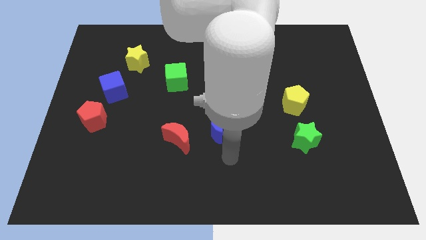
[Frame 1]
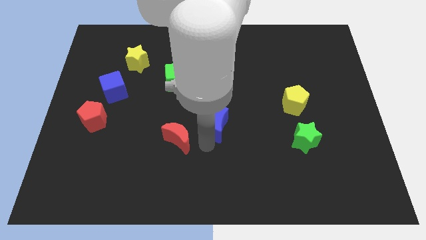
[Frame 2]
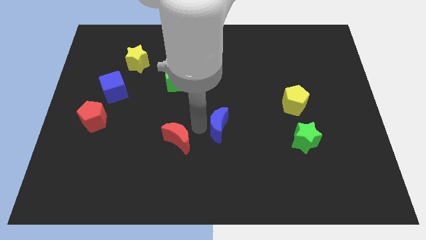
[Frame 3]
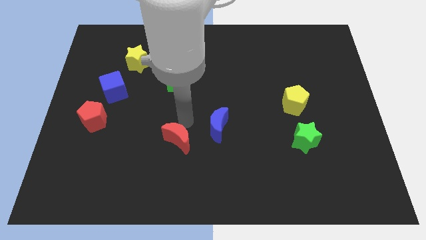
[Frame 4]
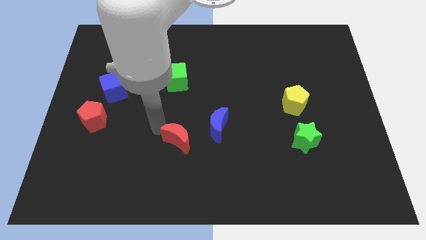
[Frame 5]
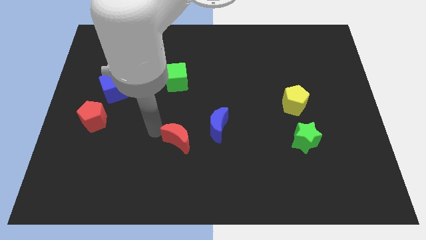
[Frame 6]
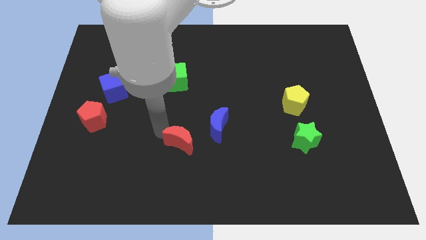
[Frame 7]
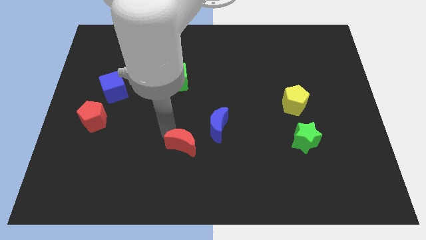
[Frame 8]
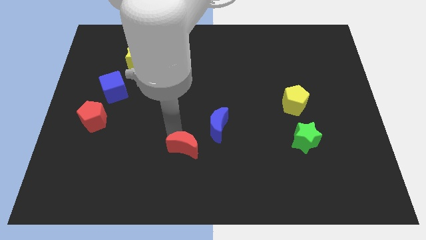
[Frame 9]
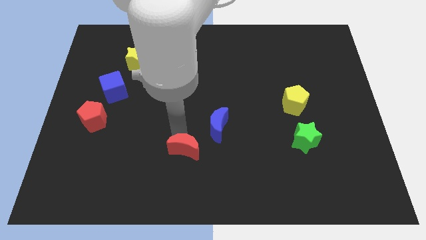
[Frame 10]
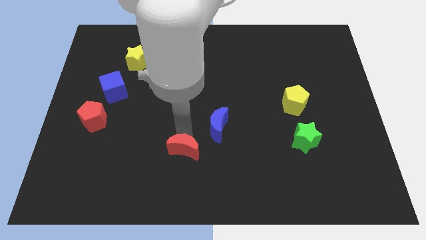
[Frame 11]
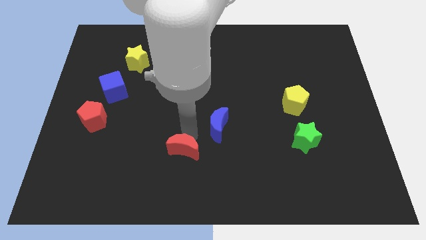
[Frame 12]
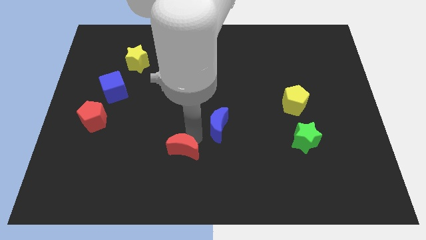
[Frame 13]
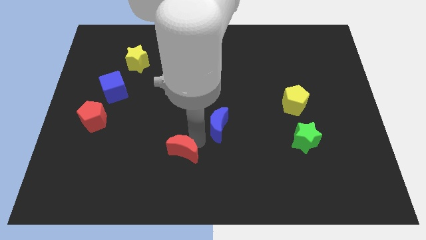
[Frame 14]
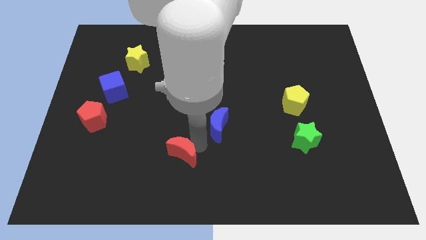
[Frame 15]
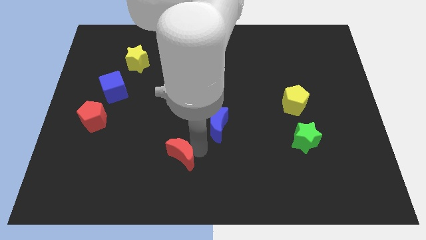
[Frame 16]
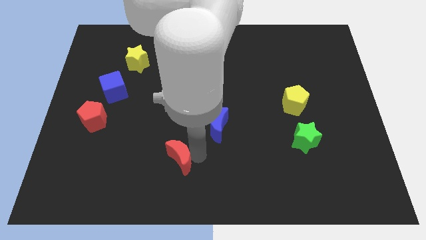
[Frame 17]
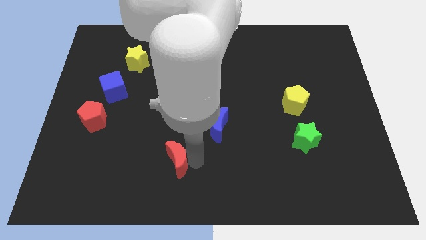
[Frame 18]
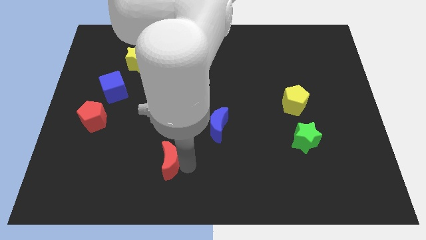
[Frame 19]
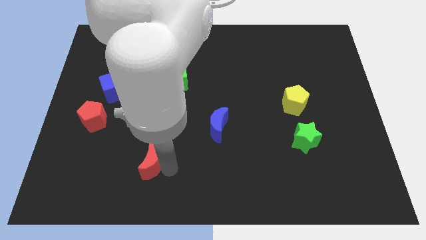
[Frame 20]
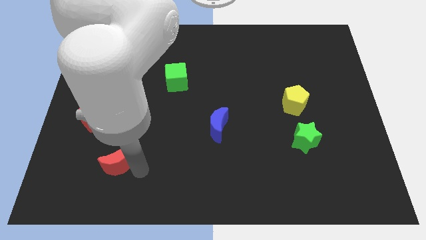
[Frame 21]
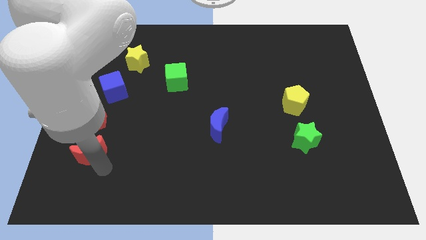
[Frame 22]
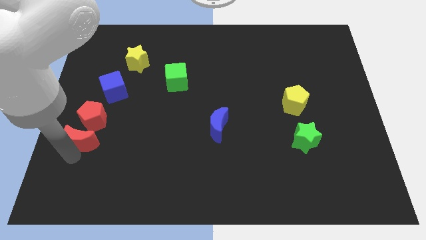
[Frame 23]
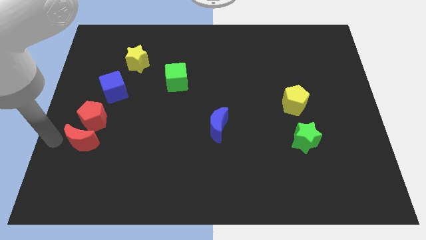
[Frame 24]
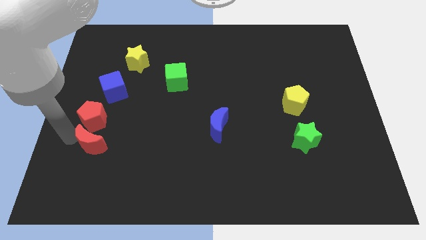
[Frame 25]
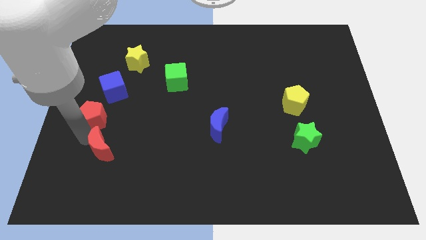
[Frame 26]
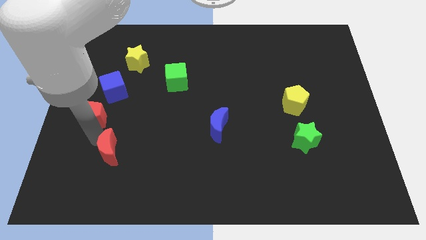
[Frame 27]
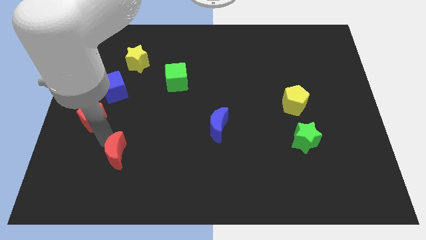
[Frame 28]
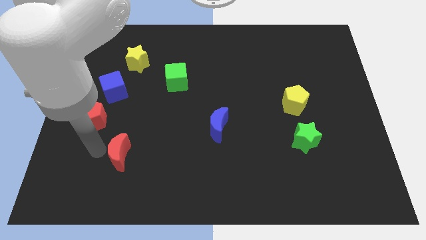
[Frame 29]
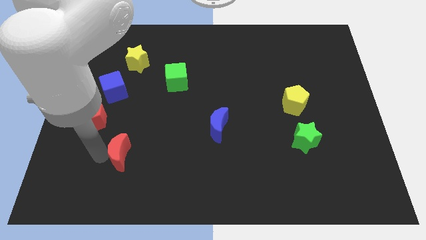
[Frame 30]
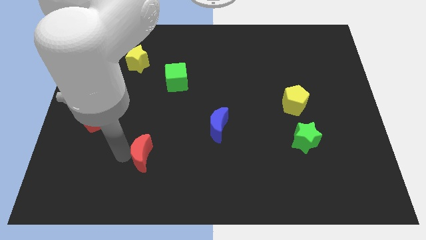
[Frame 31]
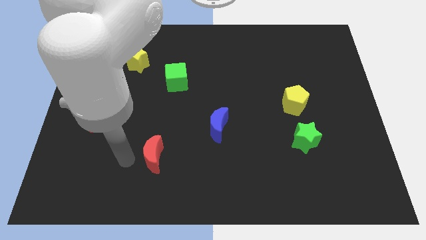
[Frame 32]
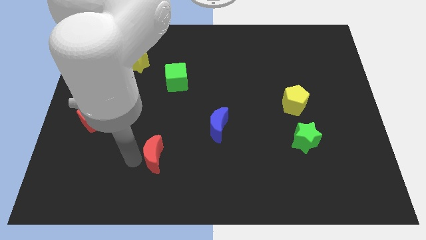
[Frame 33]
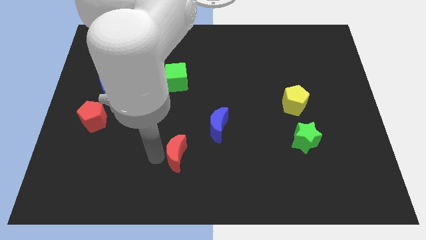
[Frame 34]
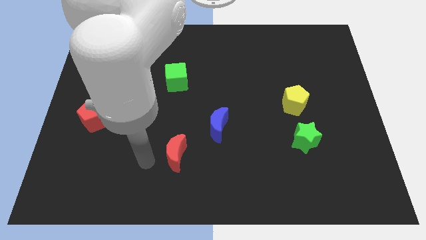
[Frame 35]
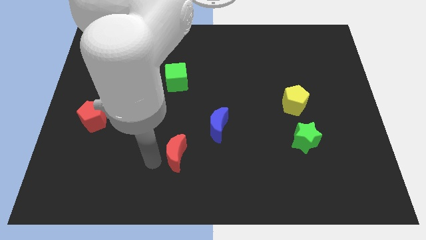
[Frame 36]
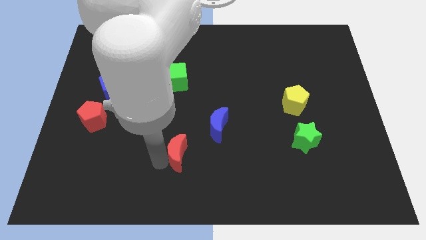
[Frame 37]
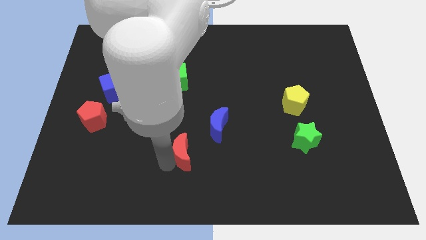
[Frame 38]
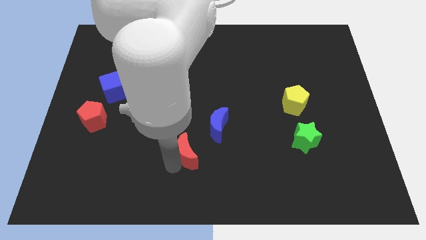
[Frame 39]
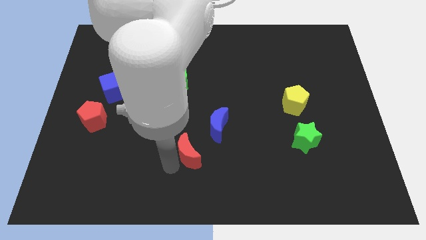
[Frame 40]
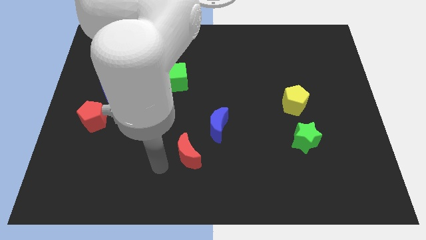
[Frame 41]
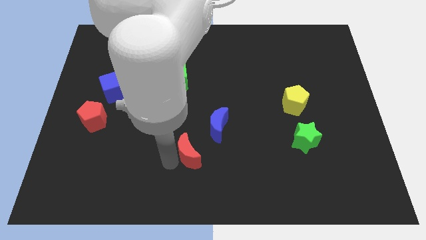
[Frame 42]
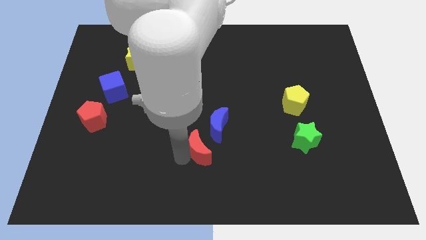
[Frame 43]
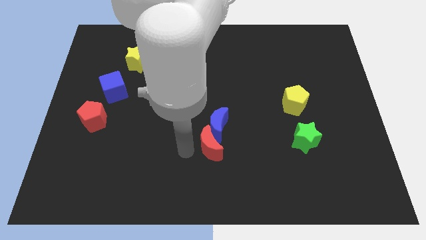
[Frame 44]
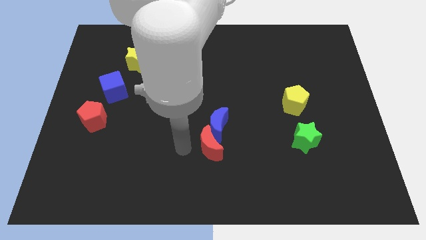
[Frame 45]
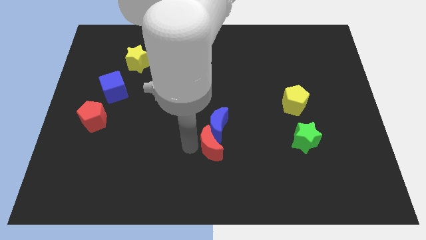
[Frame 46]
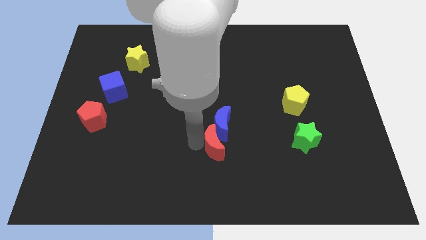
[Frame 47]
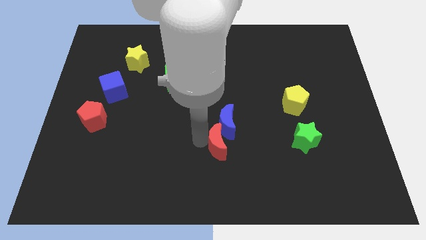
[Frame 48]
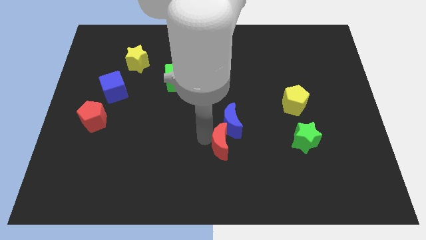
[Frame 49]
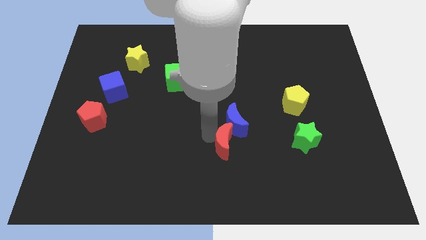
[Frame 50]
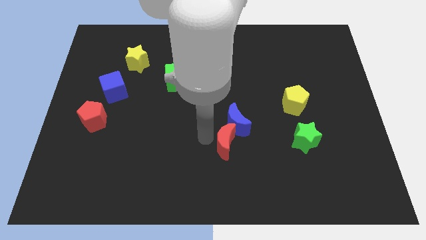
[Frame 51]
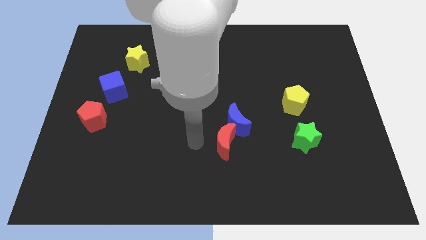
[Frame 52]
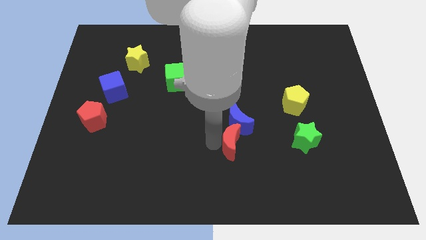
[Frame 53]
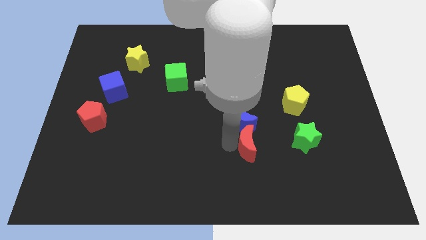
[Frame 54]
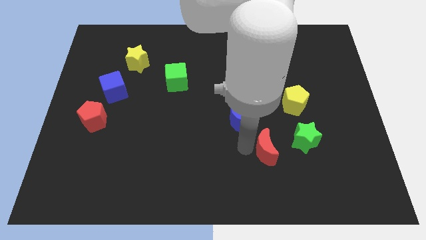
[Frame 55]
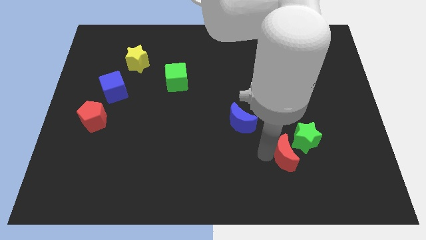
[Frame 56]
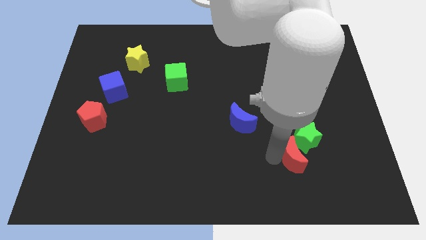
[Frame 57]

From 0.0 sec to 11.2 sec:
slide the red moon next to the green star

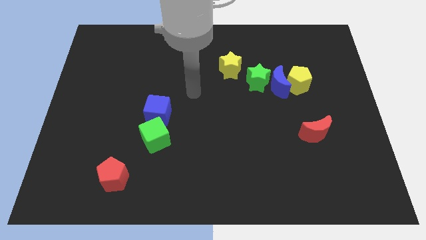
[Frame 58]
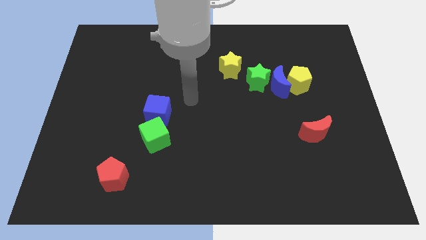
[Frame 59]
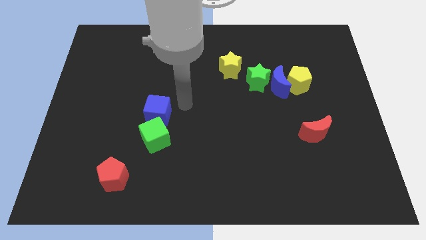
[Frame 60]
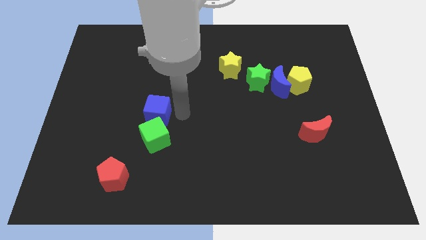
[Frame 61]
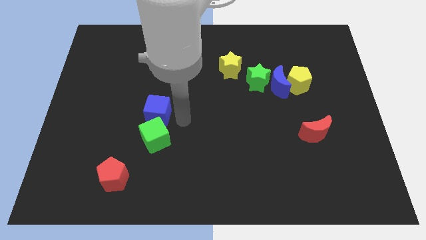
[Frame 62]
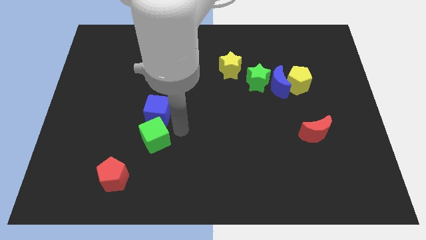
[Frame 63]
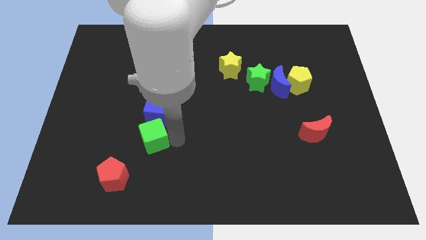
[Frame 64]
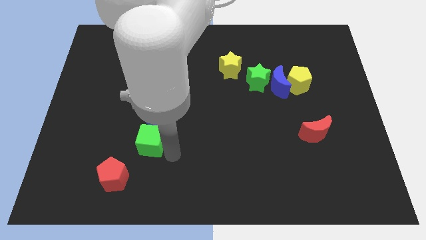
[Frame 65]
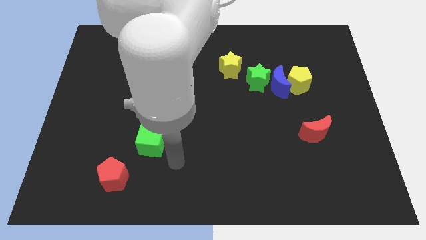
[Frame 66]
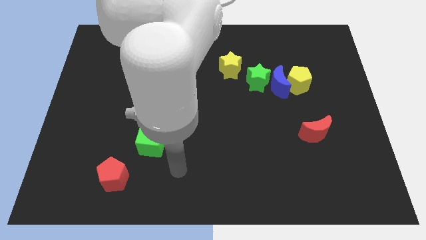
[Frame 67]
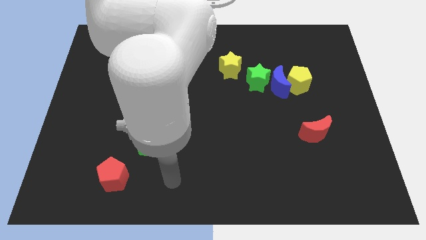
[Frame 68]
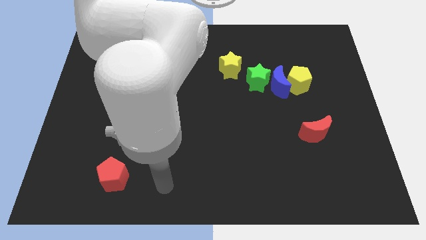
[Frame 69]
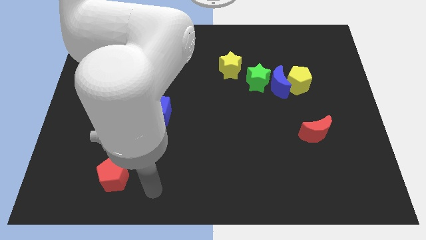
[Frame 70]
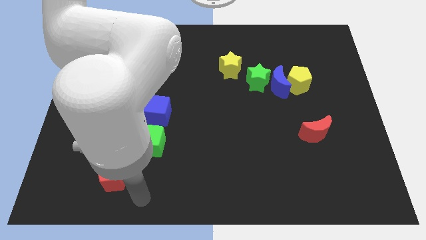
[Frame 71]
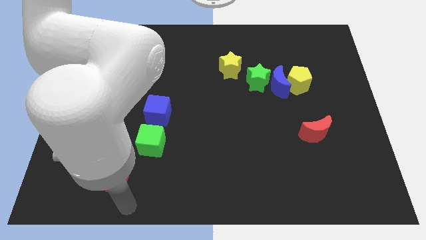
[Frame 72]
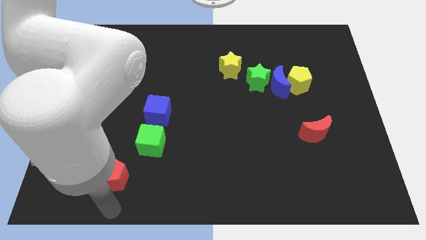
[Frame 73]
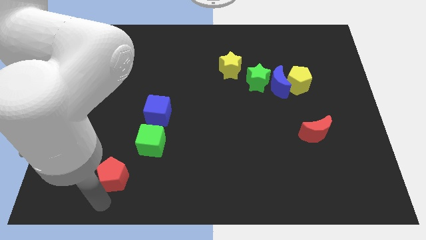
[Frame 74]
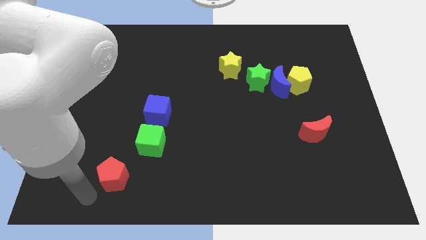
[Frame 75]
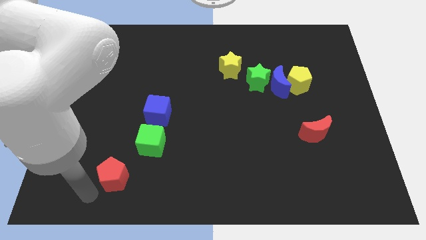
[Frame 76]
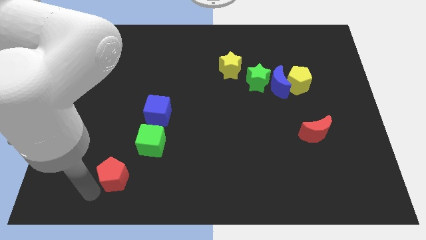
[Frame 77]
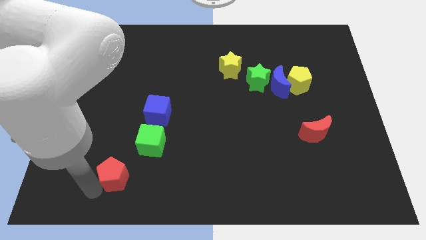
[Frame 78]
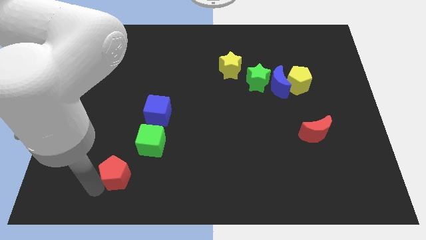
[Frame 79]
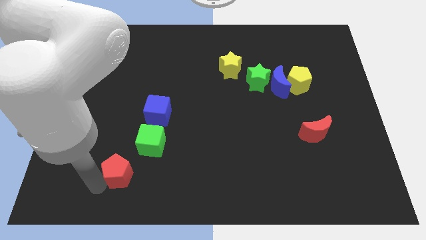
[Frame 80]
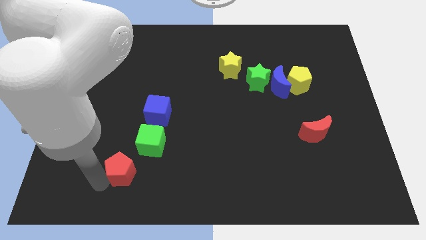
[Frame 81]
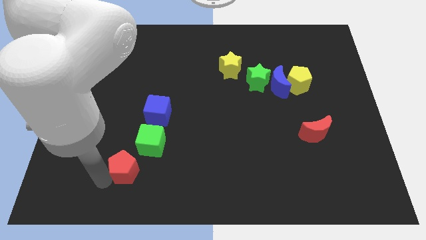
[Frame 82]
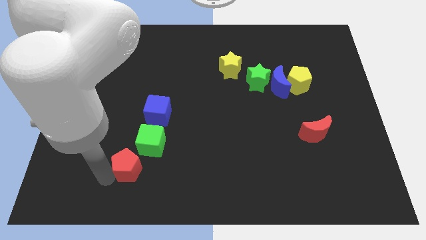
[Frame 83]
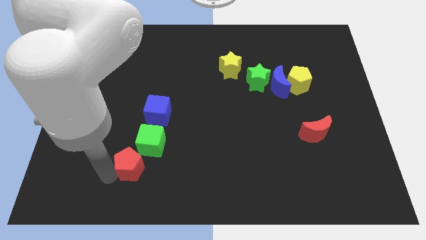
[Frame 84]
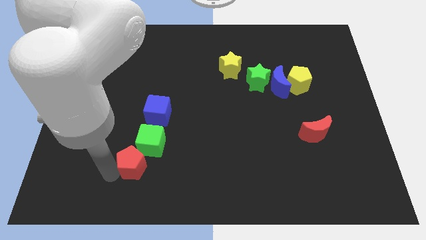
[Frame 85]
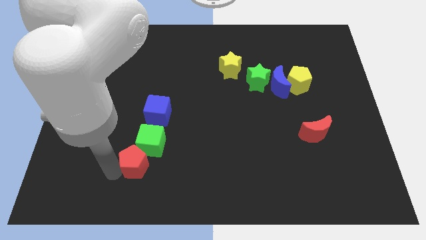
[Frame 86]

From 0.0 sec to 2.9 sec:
push the red pentagon next to the green cube
